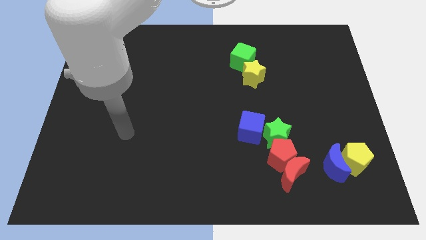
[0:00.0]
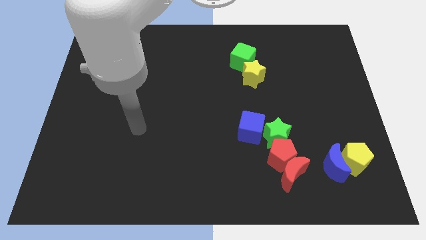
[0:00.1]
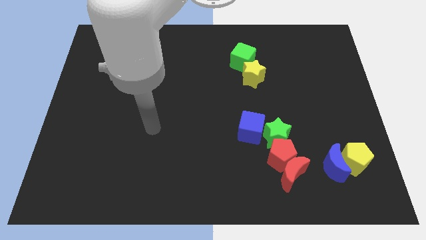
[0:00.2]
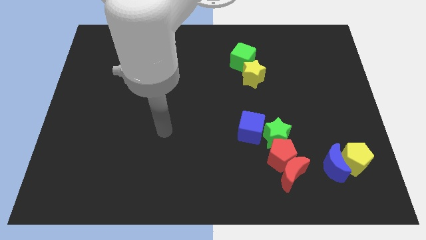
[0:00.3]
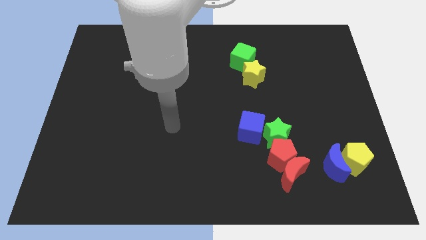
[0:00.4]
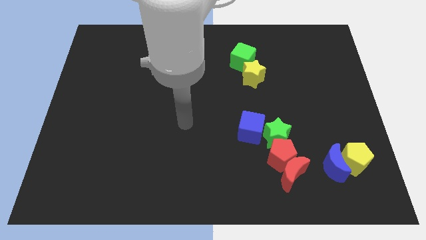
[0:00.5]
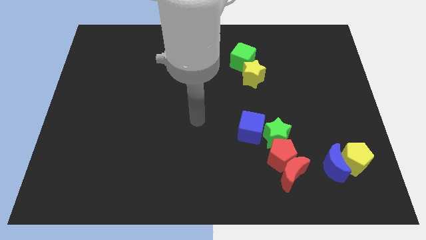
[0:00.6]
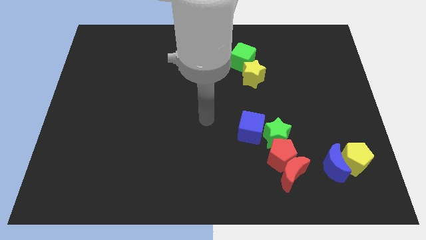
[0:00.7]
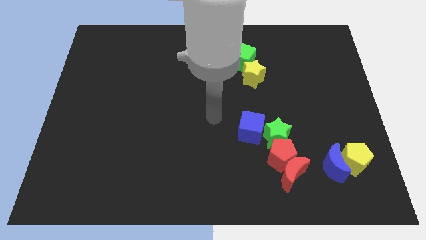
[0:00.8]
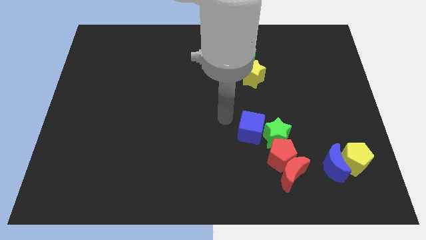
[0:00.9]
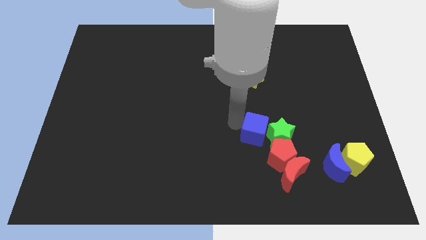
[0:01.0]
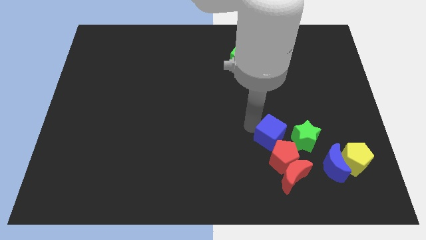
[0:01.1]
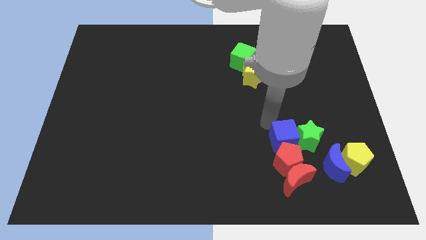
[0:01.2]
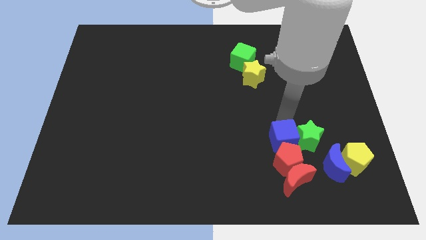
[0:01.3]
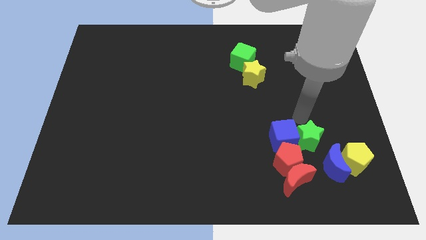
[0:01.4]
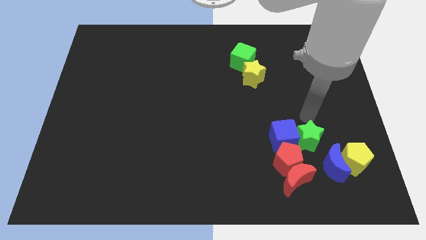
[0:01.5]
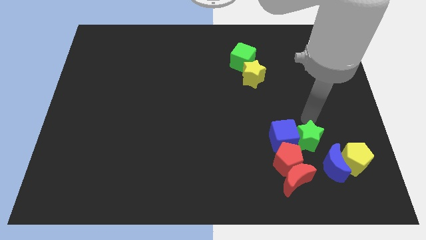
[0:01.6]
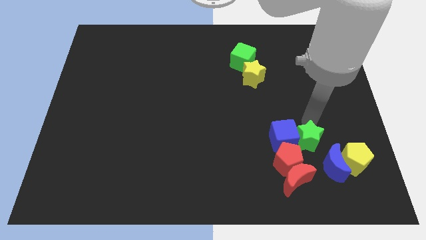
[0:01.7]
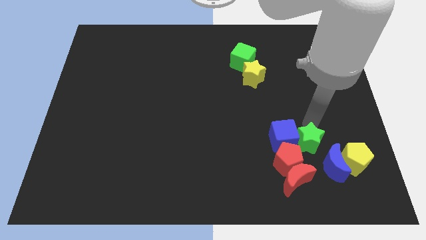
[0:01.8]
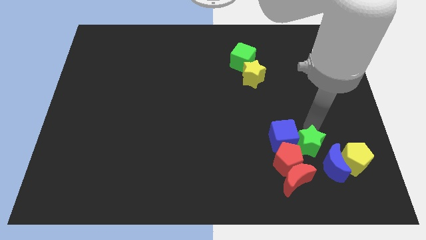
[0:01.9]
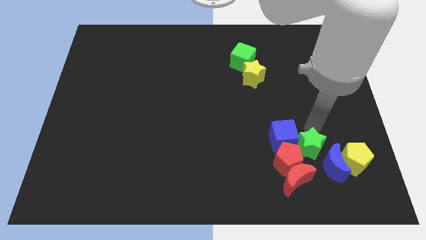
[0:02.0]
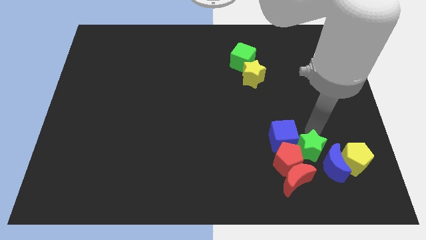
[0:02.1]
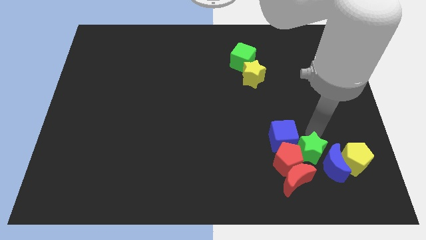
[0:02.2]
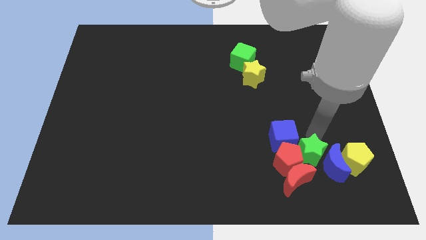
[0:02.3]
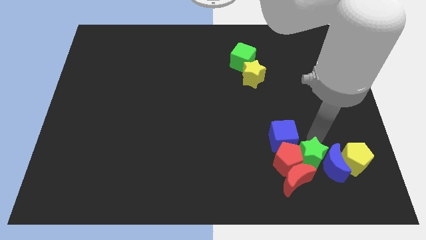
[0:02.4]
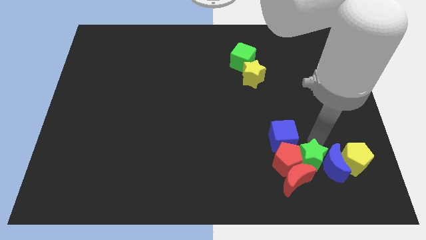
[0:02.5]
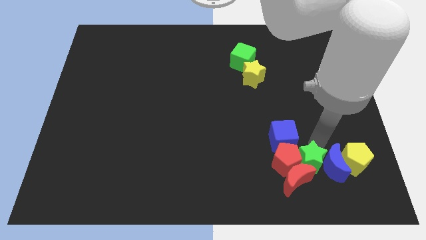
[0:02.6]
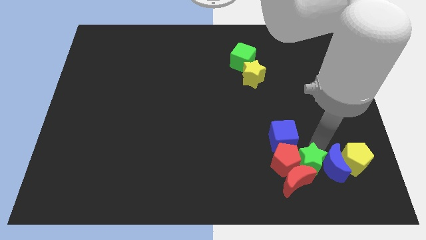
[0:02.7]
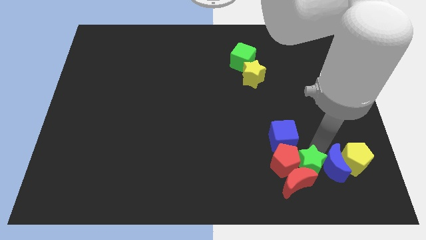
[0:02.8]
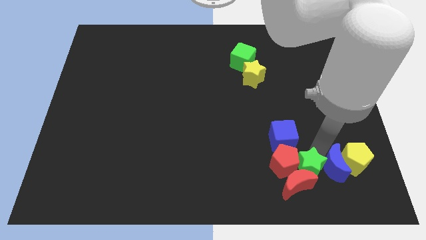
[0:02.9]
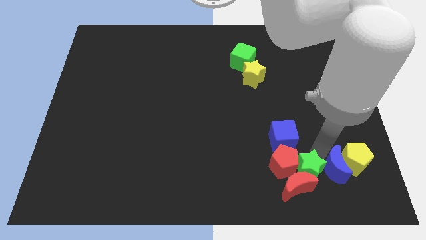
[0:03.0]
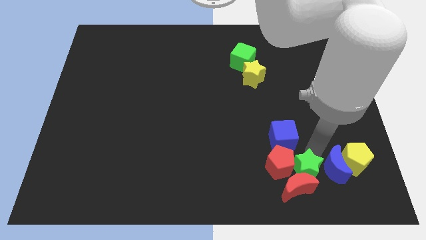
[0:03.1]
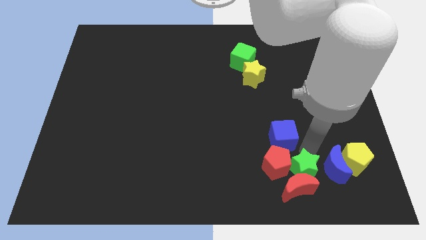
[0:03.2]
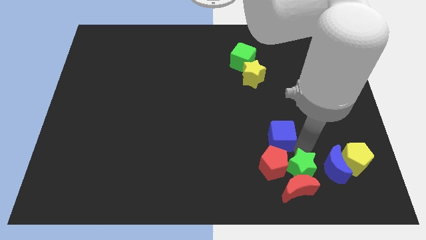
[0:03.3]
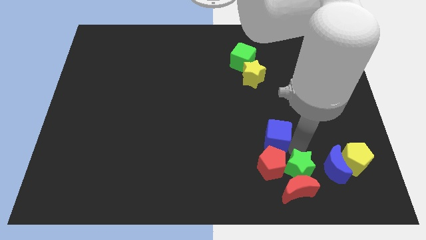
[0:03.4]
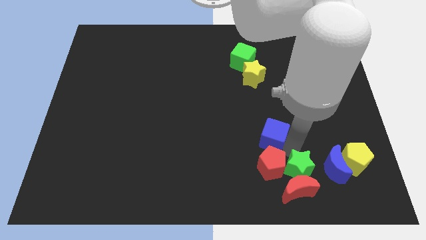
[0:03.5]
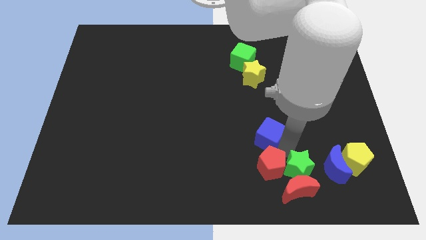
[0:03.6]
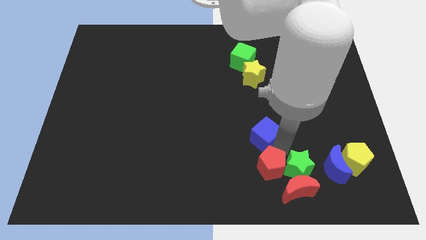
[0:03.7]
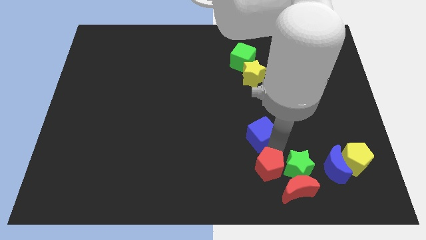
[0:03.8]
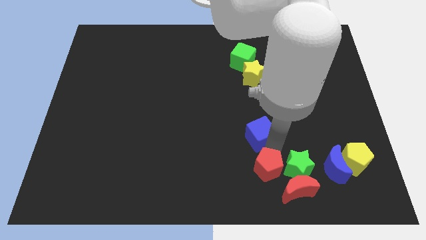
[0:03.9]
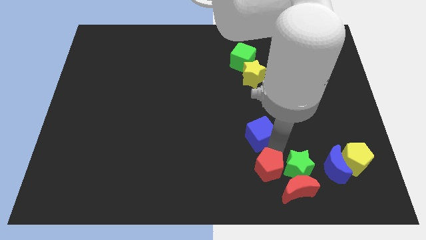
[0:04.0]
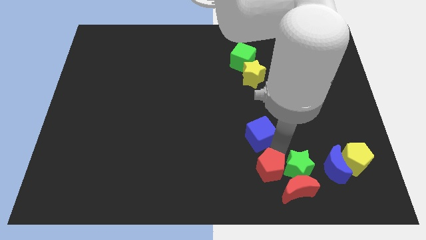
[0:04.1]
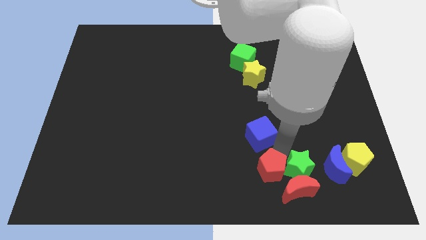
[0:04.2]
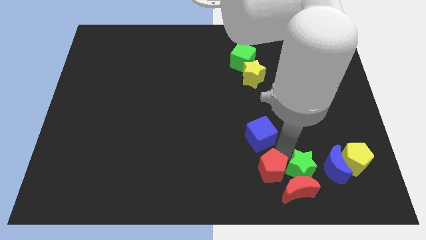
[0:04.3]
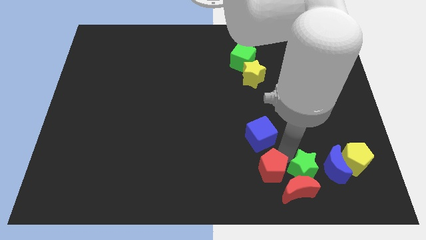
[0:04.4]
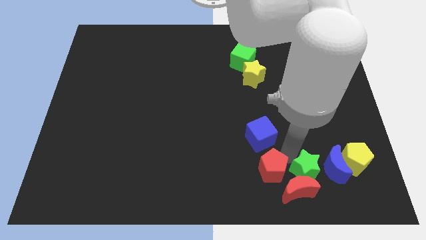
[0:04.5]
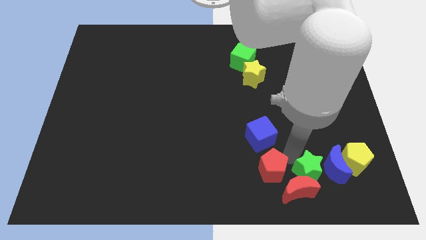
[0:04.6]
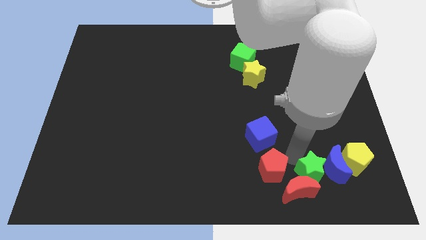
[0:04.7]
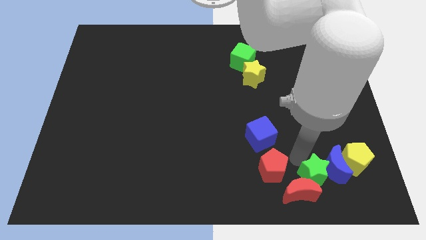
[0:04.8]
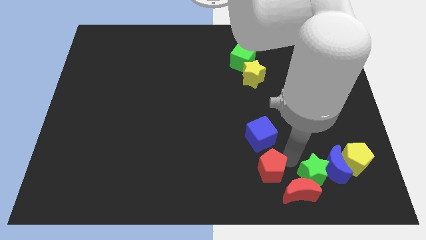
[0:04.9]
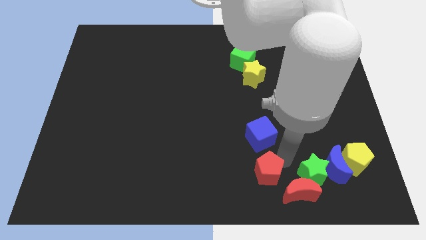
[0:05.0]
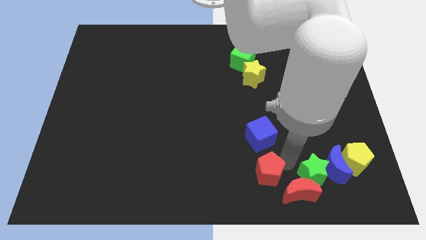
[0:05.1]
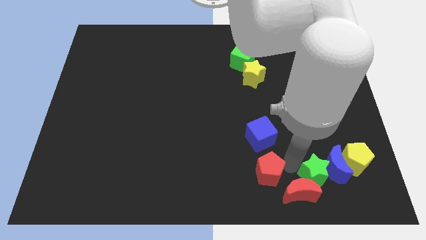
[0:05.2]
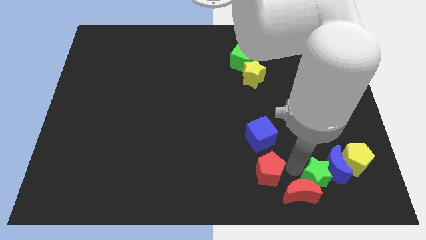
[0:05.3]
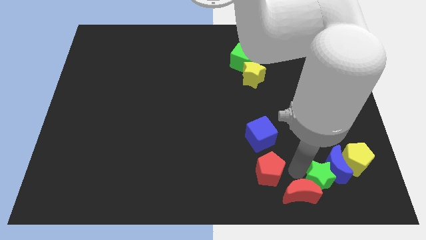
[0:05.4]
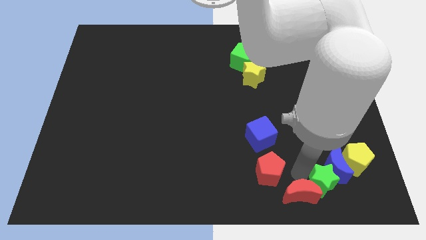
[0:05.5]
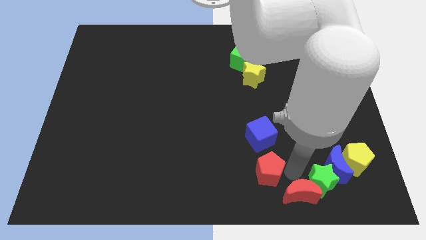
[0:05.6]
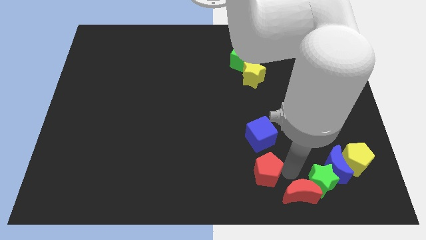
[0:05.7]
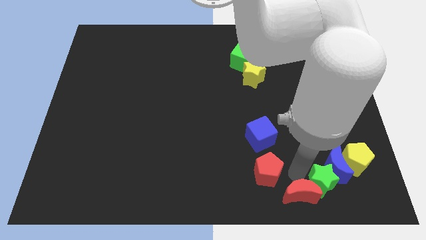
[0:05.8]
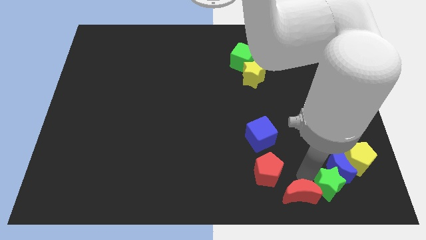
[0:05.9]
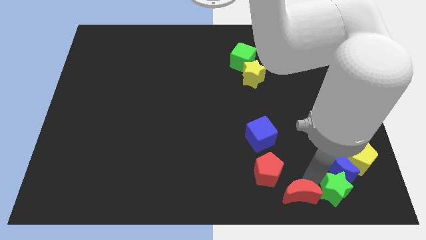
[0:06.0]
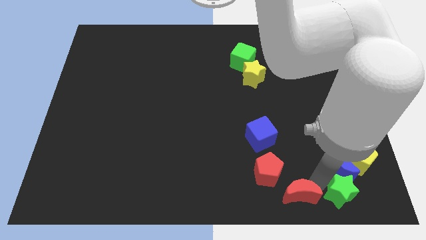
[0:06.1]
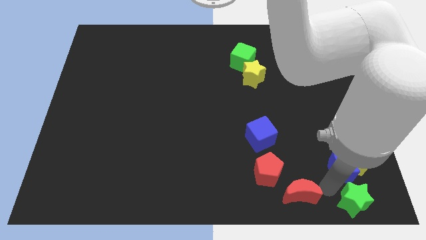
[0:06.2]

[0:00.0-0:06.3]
push the green star to the bottom right of the board
